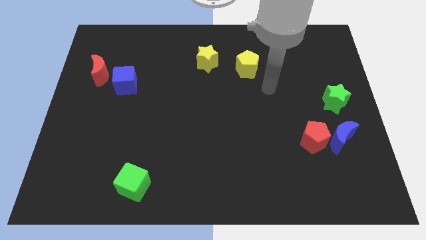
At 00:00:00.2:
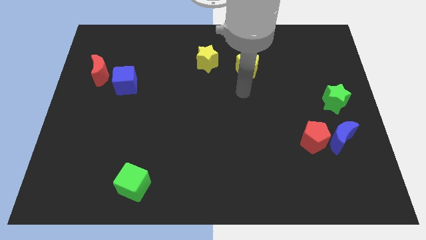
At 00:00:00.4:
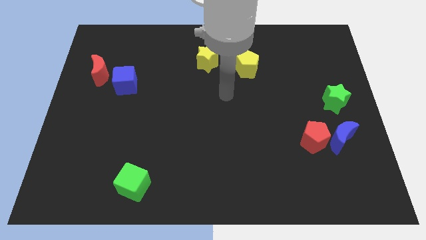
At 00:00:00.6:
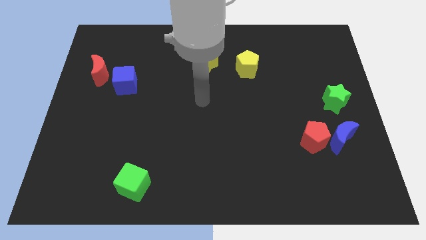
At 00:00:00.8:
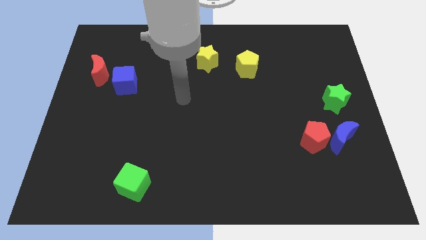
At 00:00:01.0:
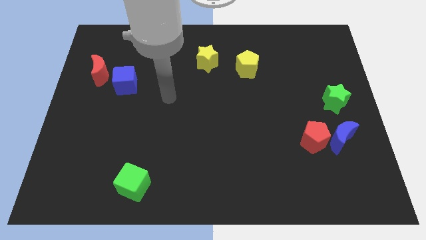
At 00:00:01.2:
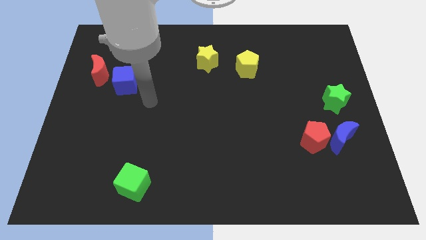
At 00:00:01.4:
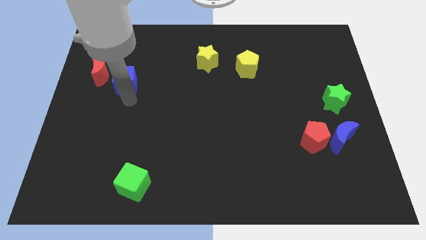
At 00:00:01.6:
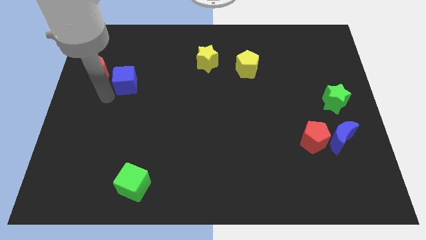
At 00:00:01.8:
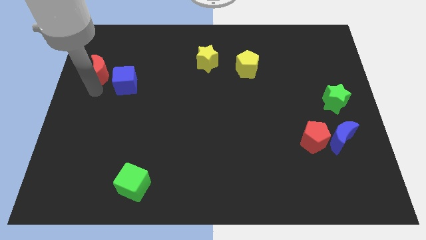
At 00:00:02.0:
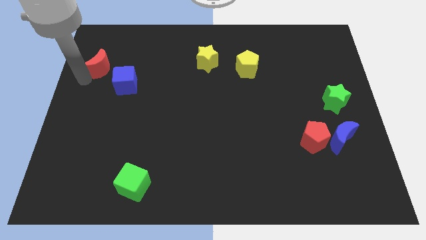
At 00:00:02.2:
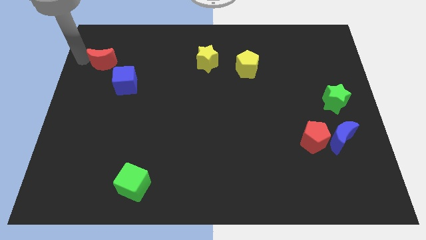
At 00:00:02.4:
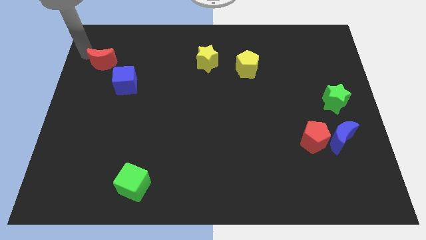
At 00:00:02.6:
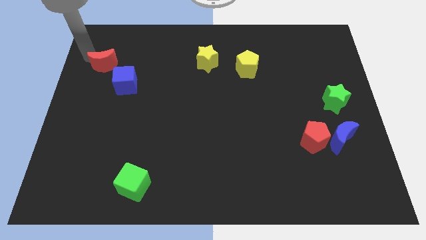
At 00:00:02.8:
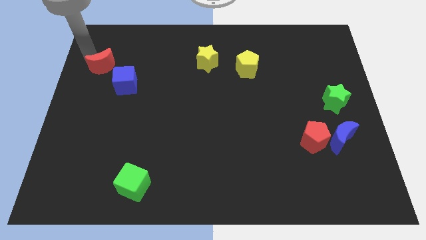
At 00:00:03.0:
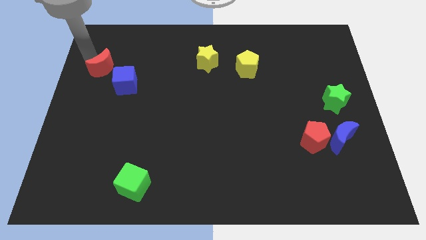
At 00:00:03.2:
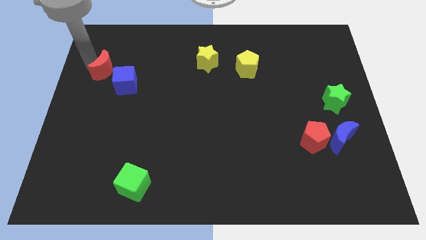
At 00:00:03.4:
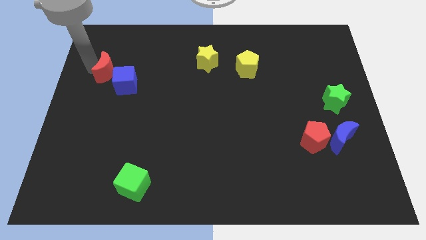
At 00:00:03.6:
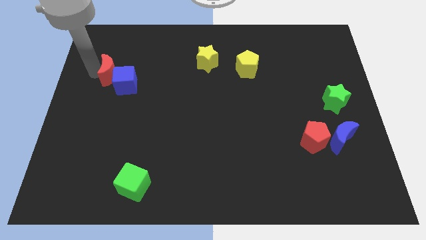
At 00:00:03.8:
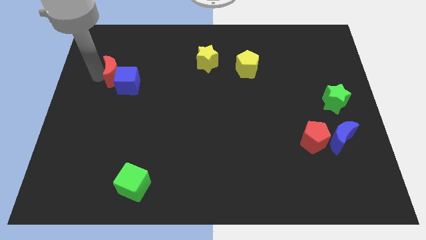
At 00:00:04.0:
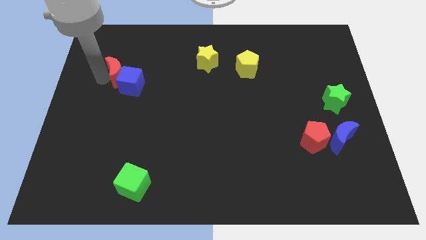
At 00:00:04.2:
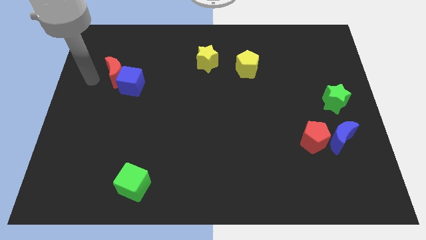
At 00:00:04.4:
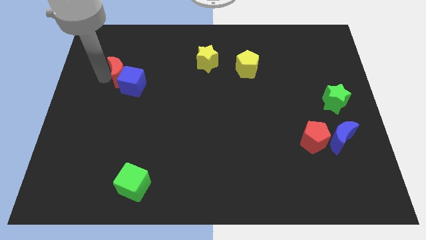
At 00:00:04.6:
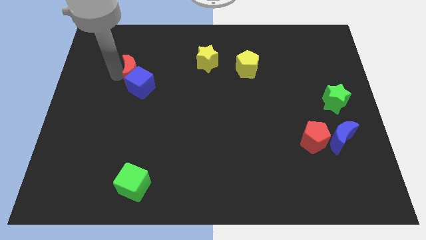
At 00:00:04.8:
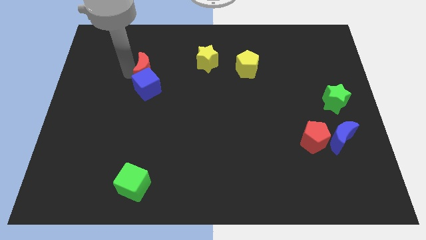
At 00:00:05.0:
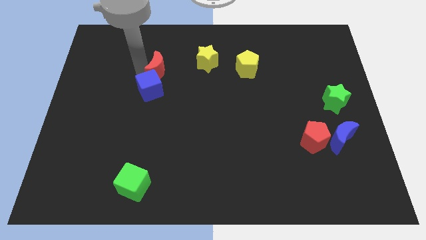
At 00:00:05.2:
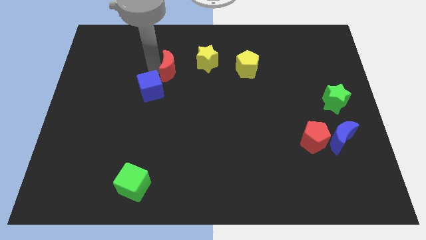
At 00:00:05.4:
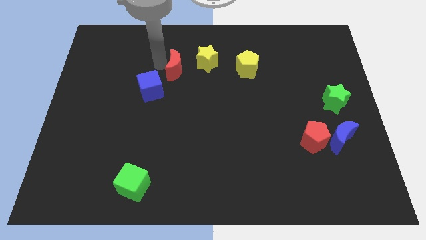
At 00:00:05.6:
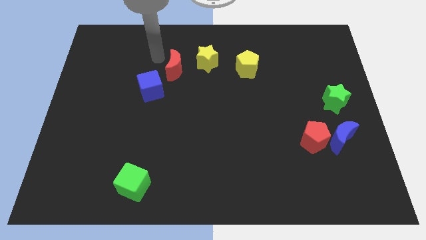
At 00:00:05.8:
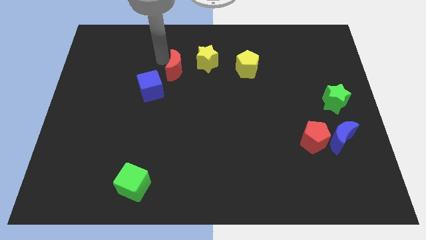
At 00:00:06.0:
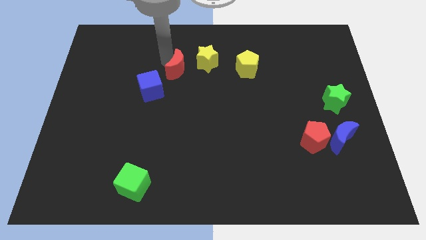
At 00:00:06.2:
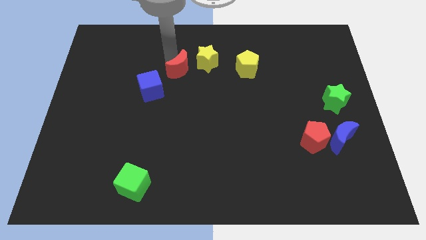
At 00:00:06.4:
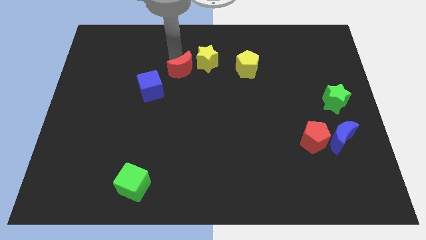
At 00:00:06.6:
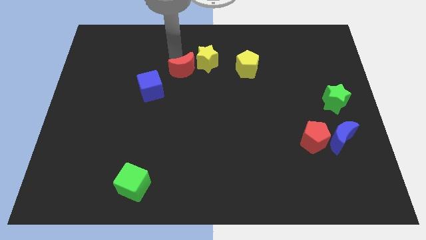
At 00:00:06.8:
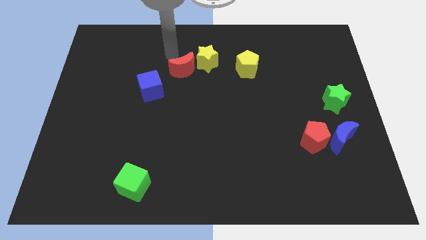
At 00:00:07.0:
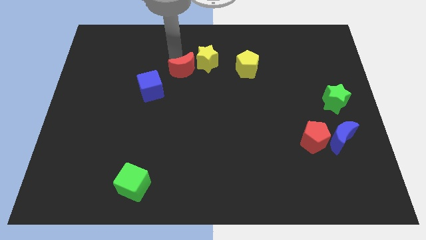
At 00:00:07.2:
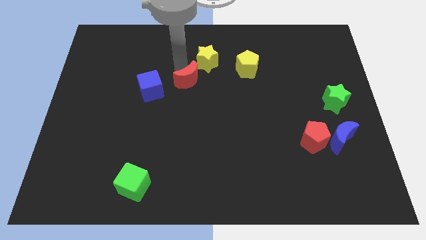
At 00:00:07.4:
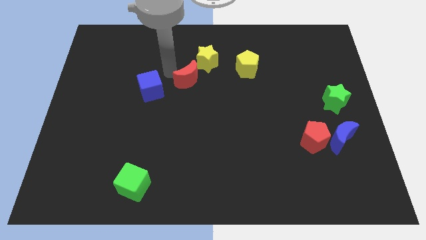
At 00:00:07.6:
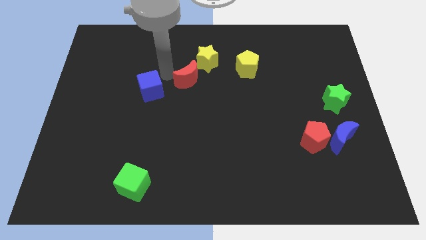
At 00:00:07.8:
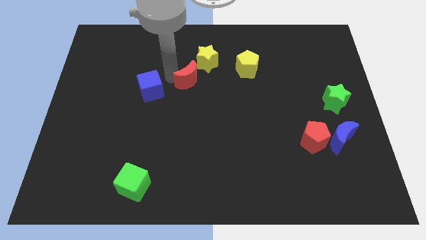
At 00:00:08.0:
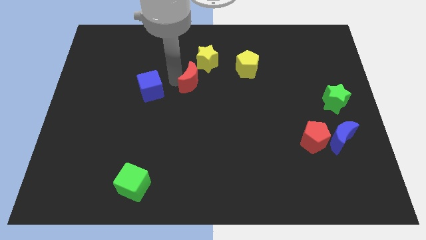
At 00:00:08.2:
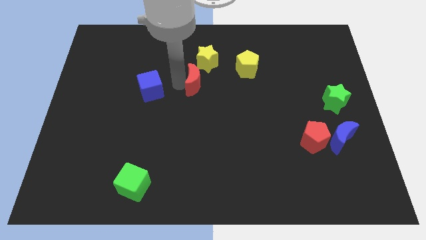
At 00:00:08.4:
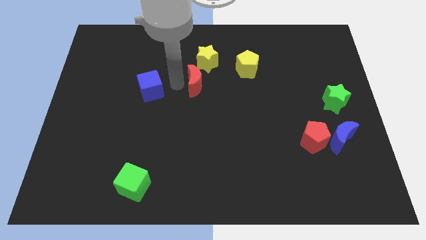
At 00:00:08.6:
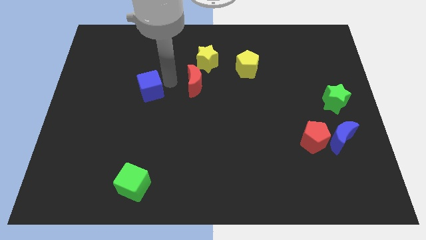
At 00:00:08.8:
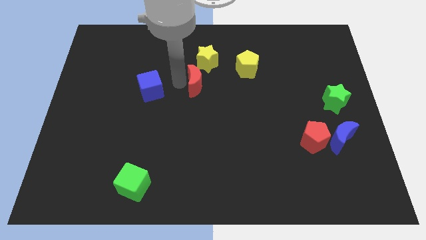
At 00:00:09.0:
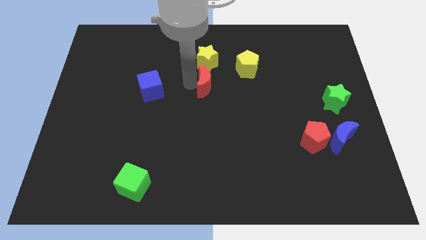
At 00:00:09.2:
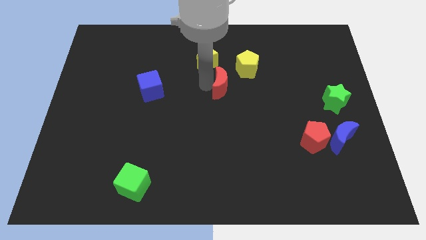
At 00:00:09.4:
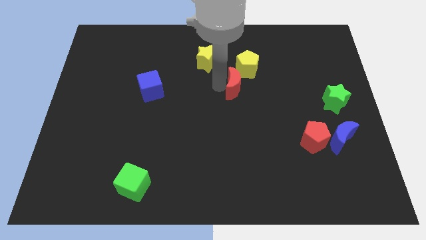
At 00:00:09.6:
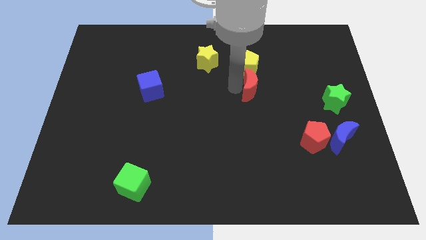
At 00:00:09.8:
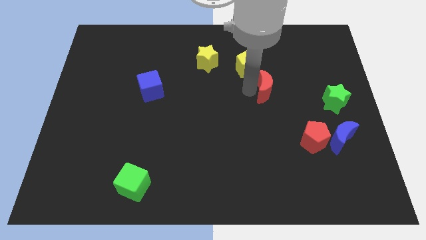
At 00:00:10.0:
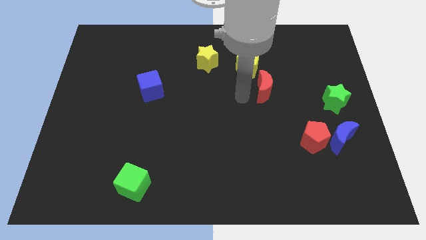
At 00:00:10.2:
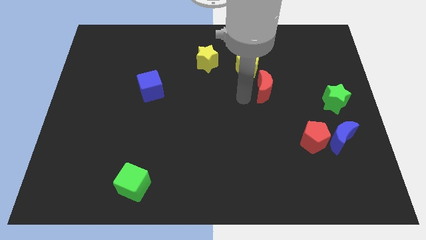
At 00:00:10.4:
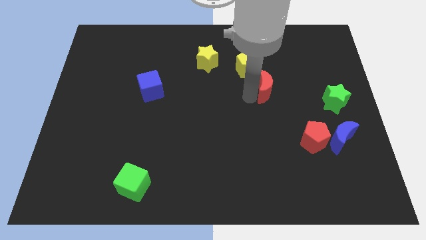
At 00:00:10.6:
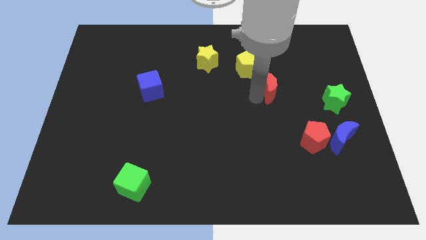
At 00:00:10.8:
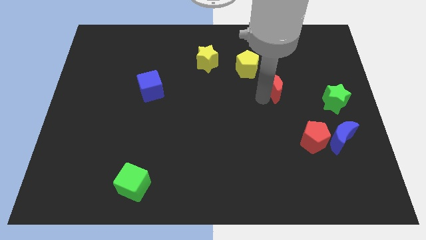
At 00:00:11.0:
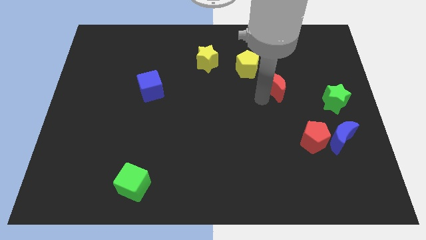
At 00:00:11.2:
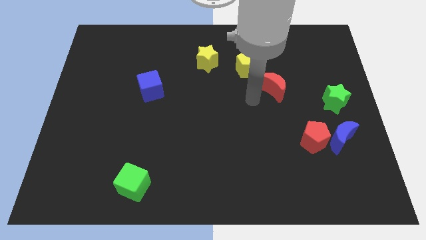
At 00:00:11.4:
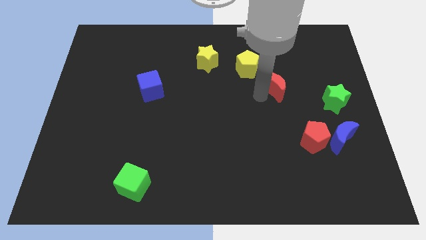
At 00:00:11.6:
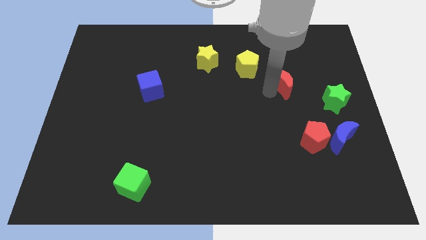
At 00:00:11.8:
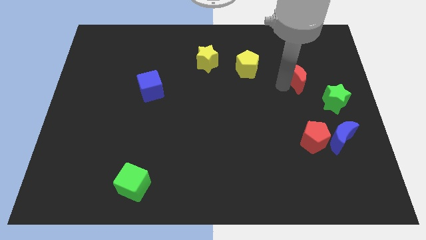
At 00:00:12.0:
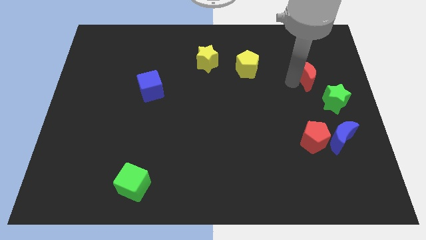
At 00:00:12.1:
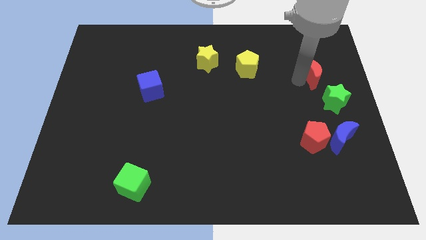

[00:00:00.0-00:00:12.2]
slide the red moon to the top side of the green star

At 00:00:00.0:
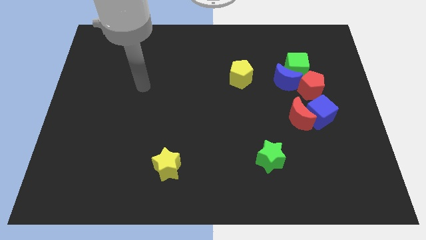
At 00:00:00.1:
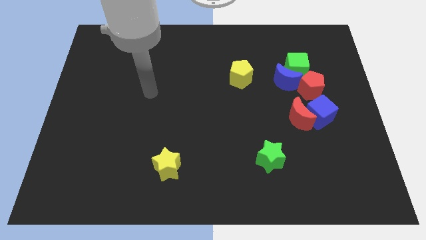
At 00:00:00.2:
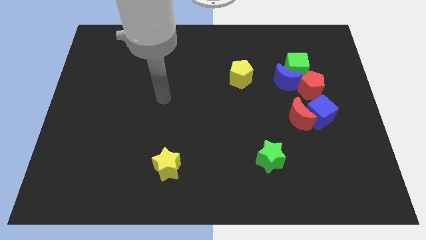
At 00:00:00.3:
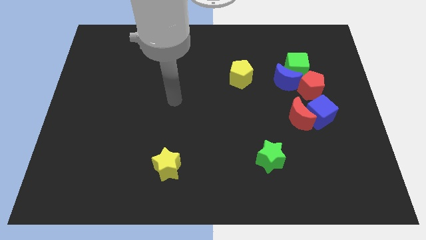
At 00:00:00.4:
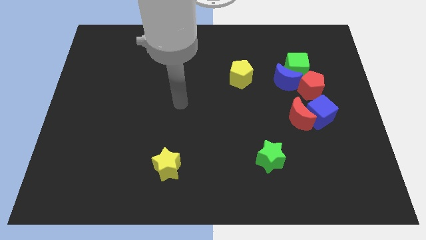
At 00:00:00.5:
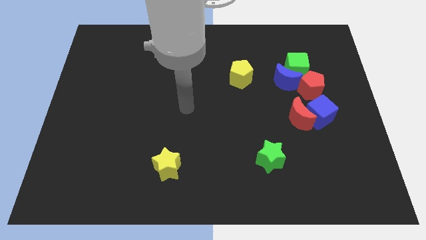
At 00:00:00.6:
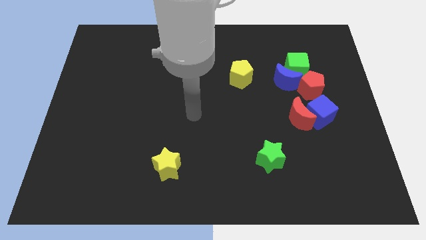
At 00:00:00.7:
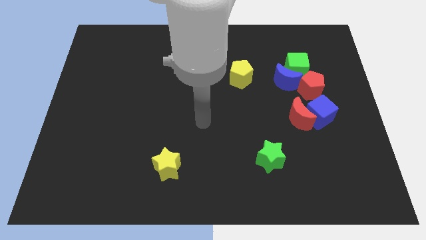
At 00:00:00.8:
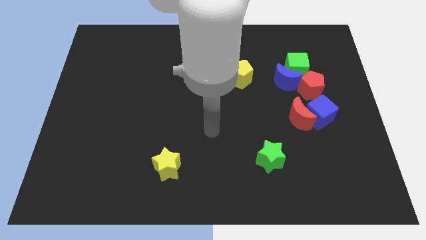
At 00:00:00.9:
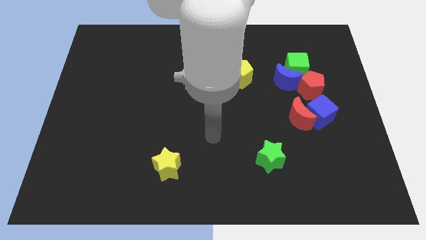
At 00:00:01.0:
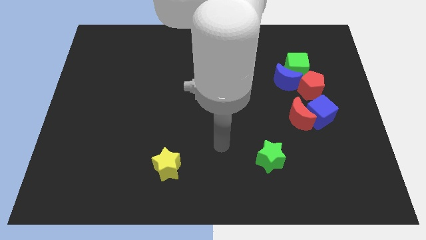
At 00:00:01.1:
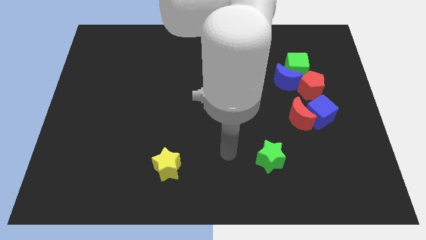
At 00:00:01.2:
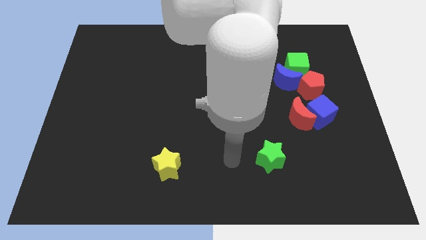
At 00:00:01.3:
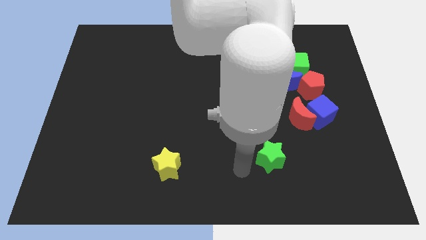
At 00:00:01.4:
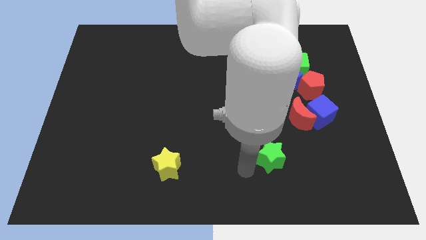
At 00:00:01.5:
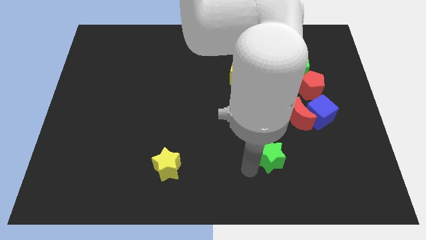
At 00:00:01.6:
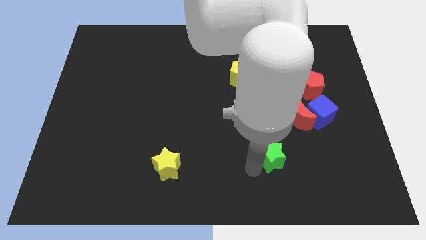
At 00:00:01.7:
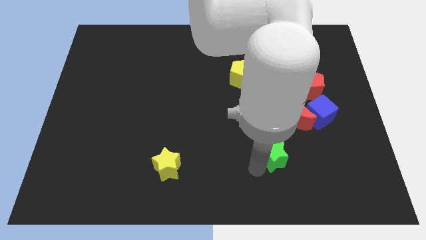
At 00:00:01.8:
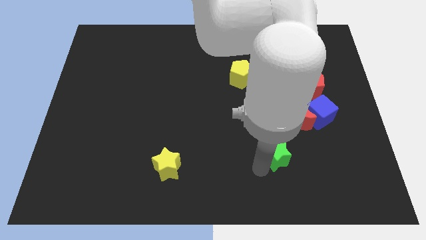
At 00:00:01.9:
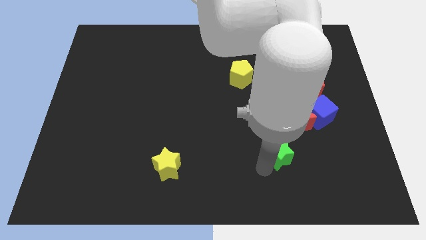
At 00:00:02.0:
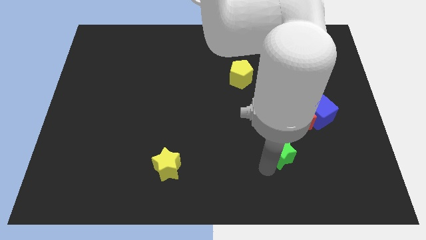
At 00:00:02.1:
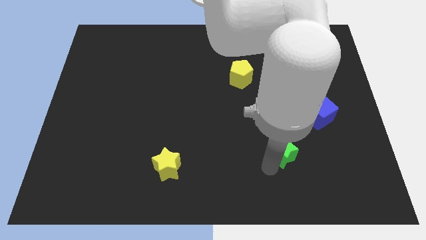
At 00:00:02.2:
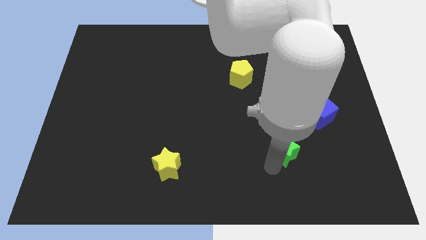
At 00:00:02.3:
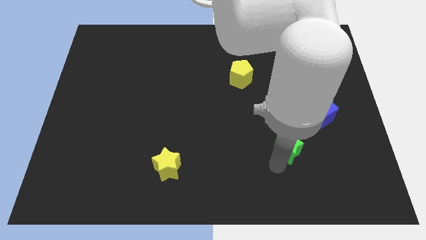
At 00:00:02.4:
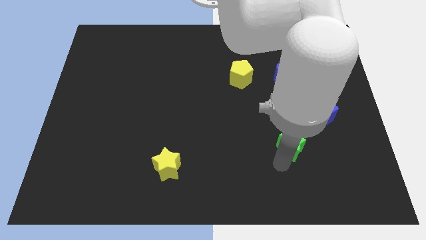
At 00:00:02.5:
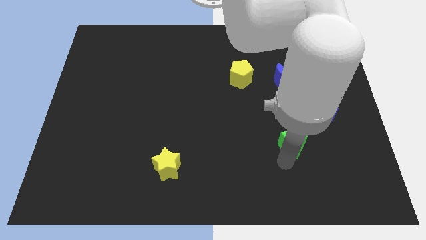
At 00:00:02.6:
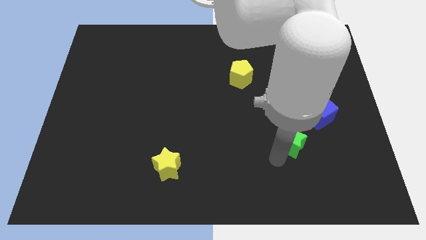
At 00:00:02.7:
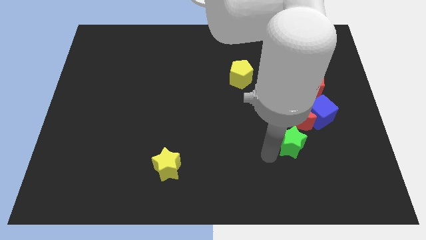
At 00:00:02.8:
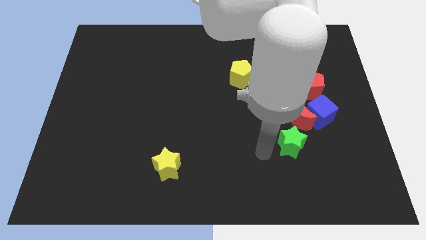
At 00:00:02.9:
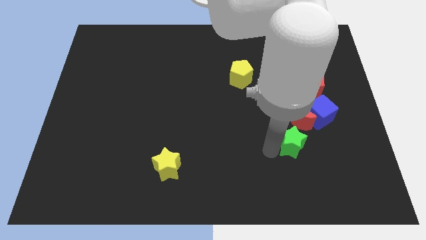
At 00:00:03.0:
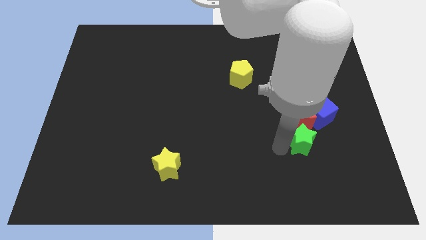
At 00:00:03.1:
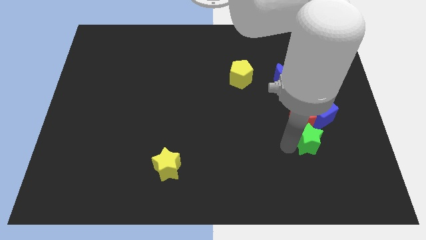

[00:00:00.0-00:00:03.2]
put the green star to the bottom right of the red moon
